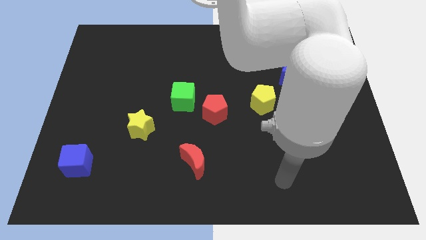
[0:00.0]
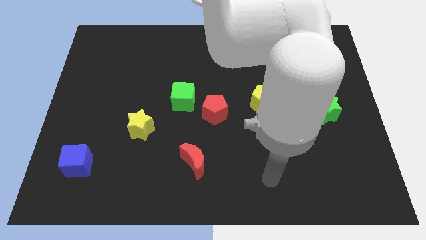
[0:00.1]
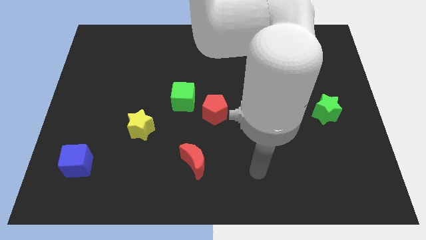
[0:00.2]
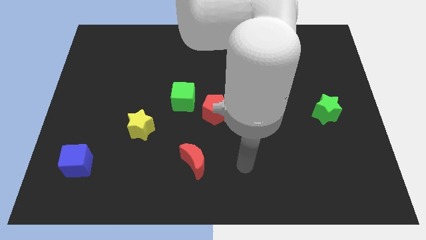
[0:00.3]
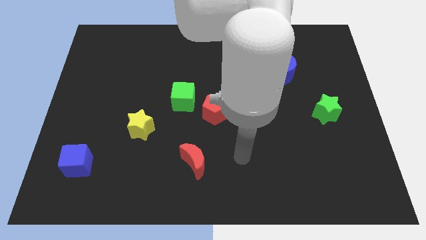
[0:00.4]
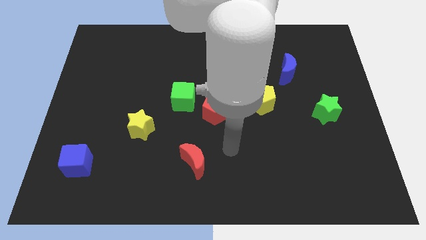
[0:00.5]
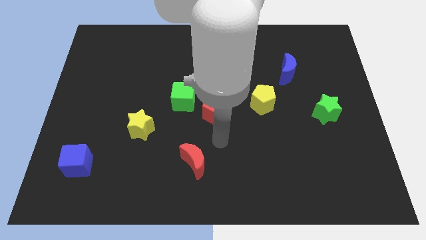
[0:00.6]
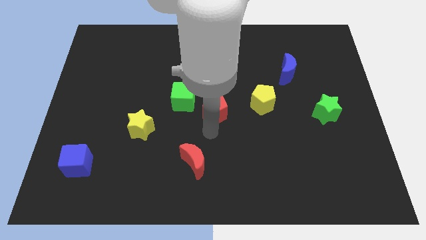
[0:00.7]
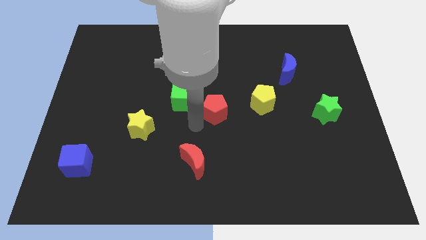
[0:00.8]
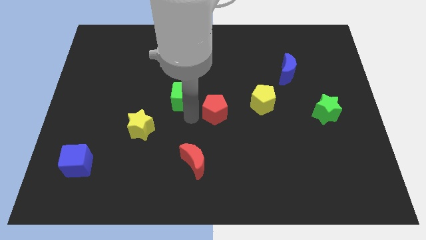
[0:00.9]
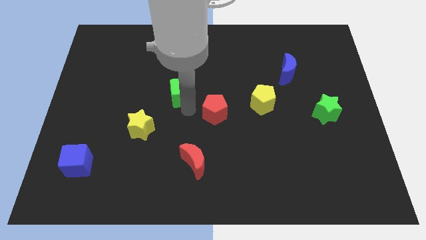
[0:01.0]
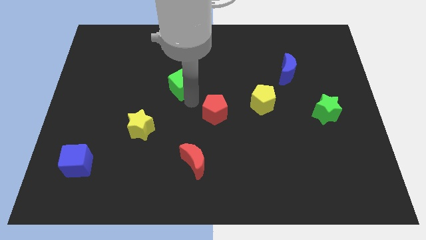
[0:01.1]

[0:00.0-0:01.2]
pull the red pentagon apart from the green cube

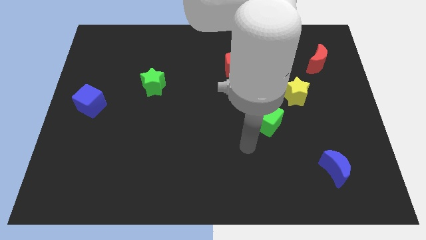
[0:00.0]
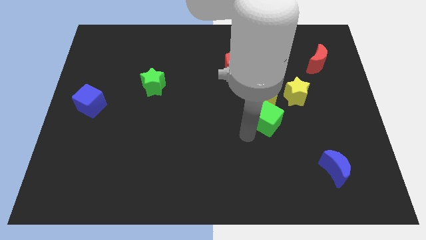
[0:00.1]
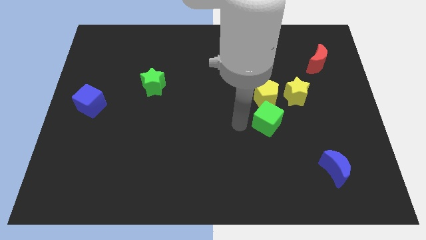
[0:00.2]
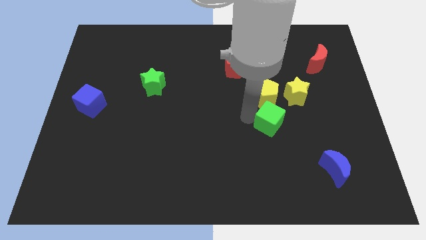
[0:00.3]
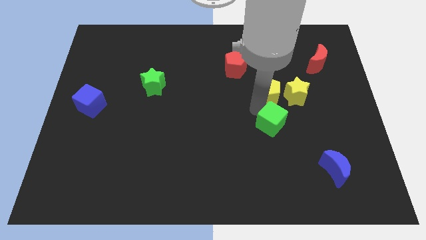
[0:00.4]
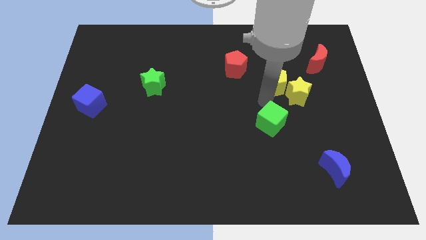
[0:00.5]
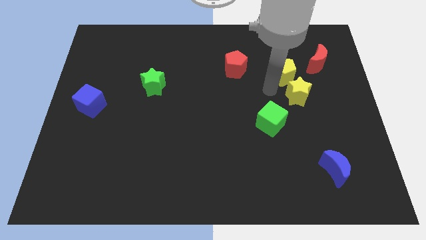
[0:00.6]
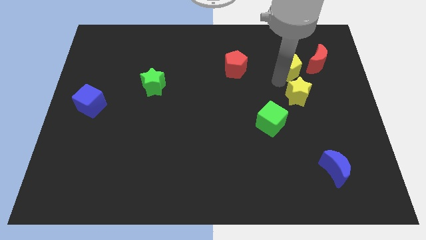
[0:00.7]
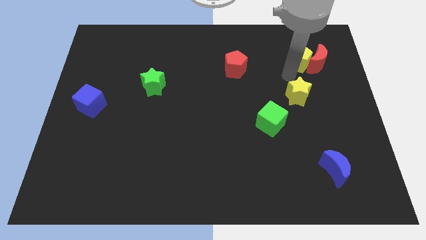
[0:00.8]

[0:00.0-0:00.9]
move the yellow star away from the yellow pentagon

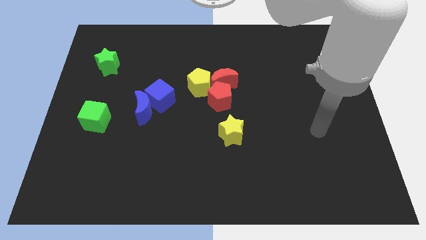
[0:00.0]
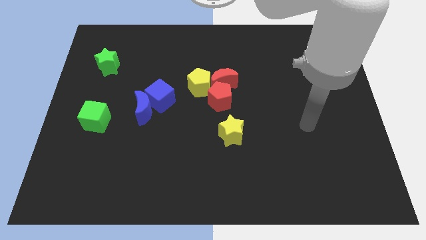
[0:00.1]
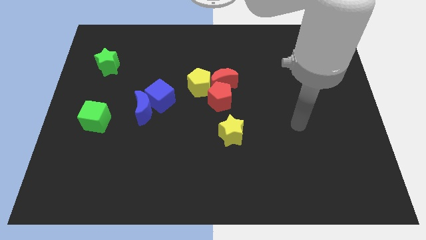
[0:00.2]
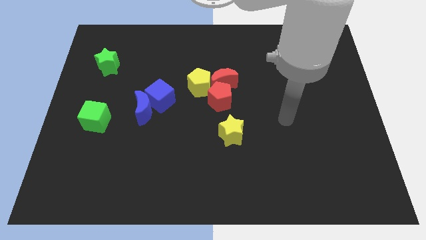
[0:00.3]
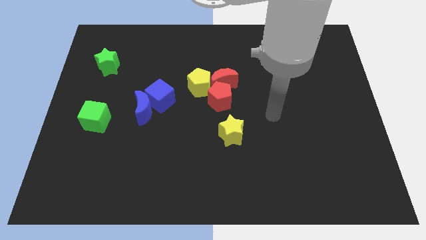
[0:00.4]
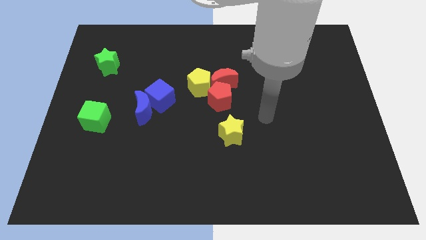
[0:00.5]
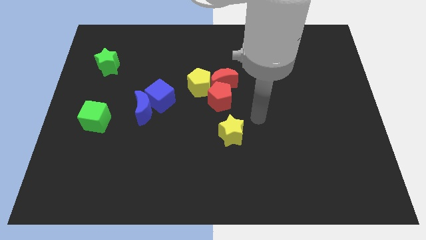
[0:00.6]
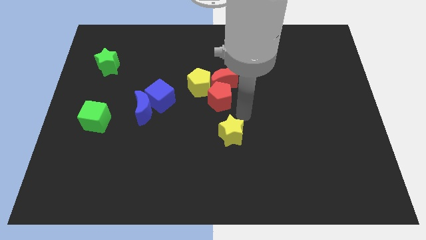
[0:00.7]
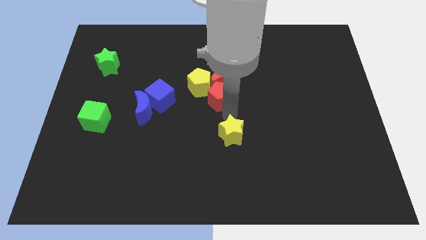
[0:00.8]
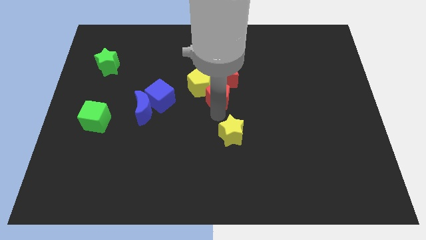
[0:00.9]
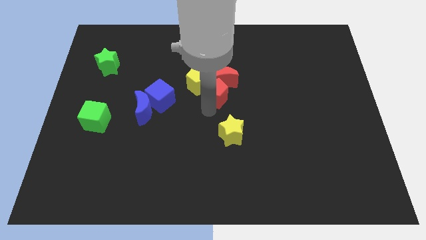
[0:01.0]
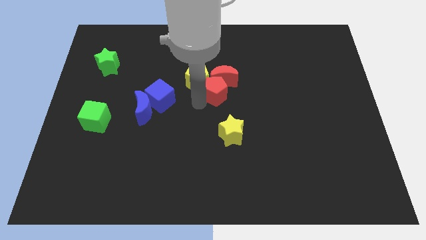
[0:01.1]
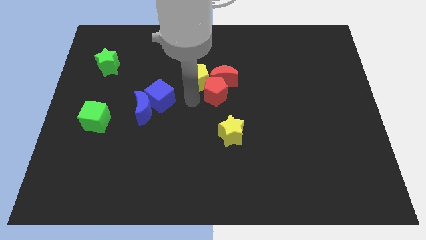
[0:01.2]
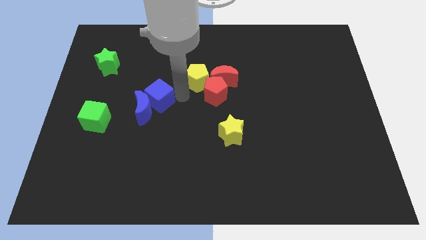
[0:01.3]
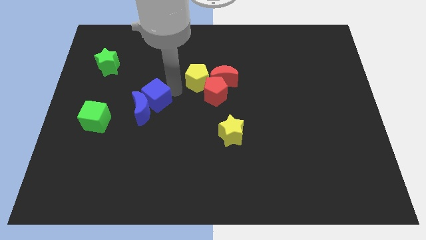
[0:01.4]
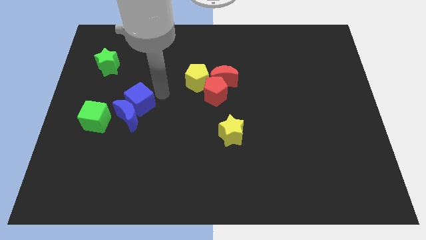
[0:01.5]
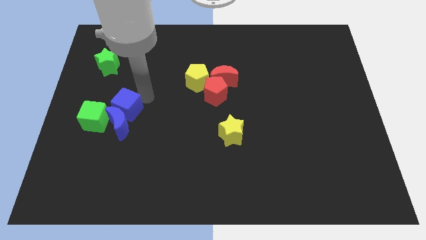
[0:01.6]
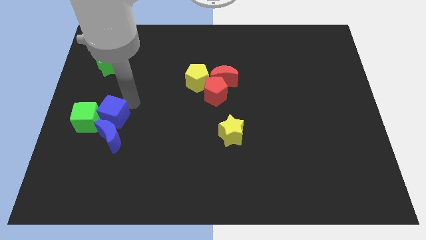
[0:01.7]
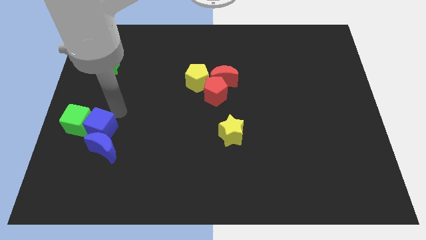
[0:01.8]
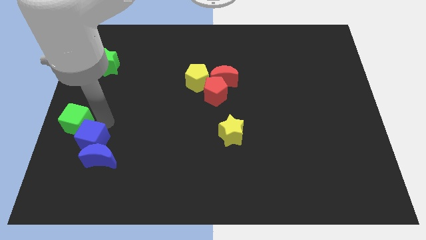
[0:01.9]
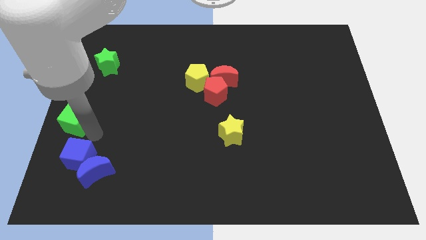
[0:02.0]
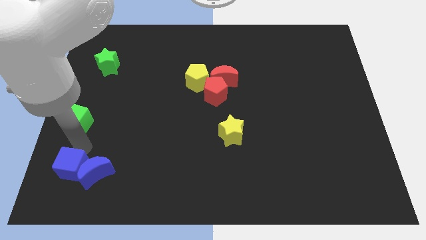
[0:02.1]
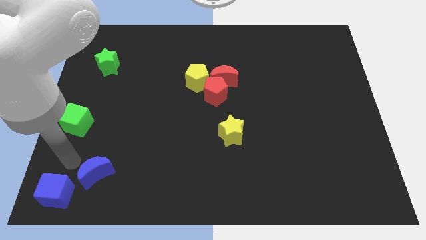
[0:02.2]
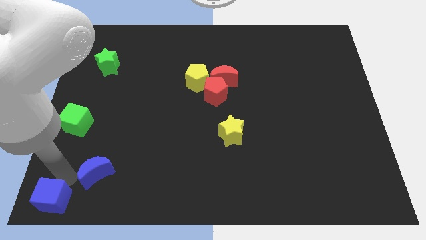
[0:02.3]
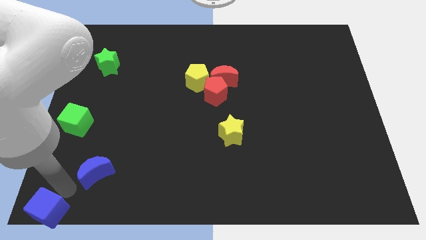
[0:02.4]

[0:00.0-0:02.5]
separate the blue moon from the blue cube

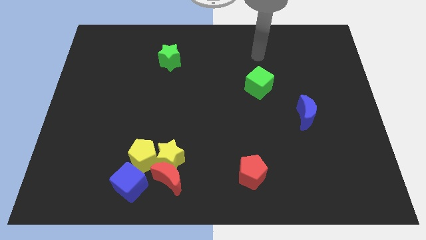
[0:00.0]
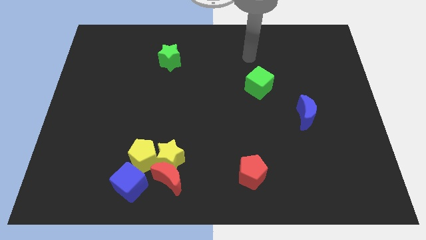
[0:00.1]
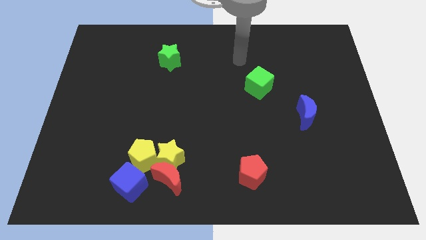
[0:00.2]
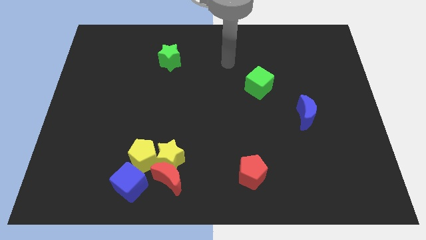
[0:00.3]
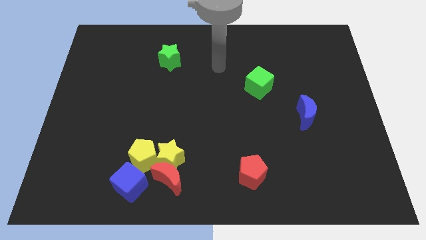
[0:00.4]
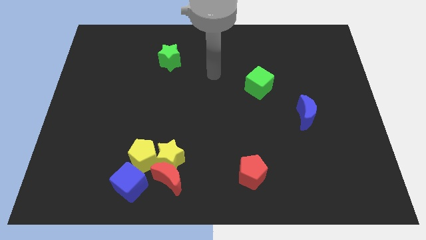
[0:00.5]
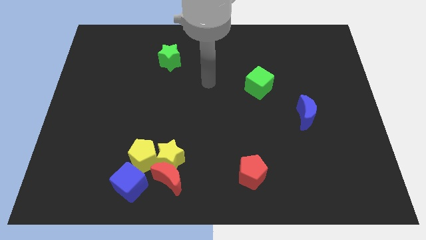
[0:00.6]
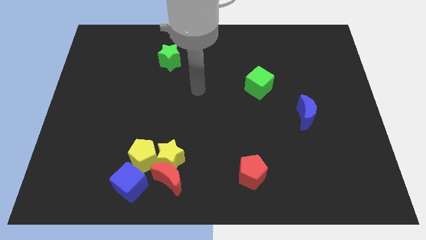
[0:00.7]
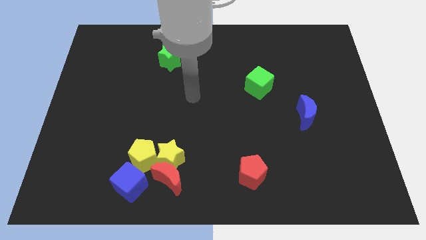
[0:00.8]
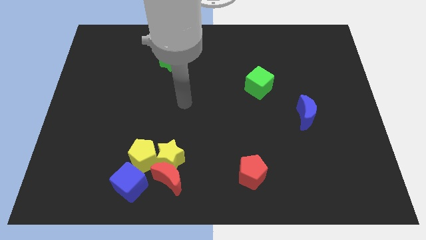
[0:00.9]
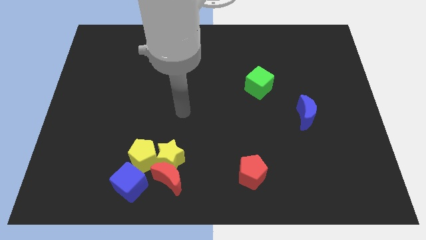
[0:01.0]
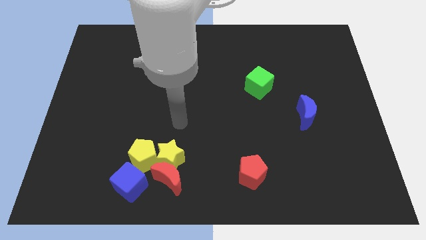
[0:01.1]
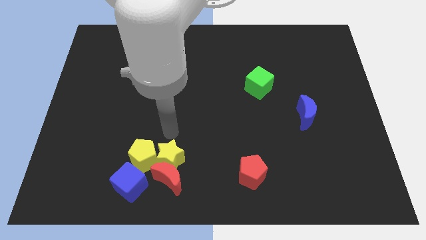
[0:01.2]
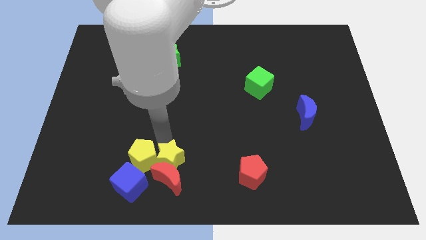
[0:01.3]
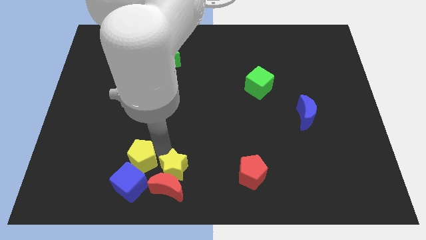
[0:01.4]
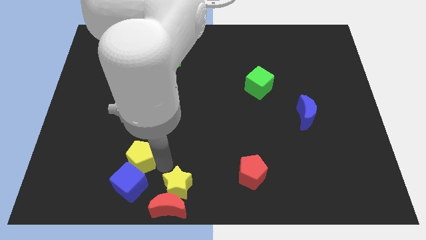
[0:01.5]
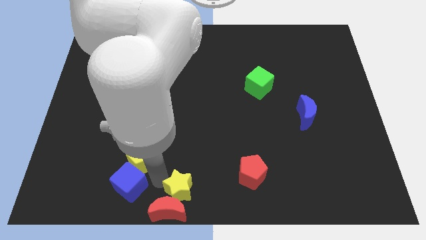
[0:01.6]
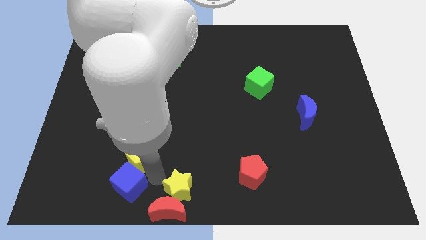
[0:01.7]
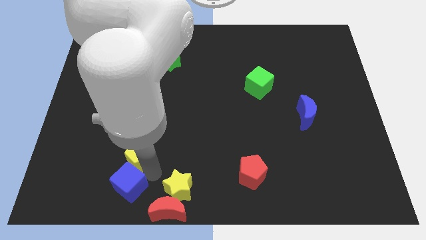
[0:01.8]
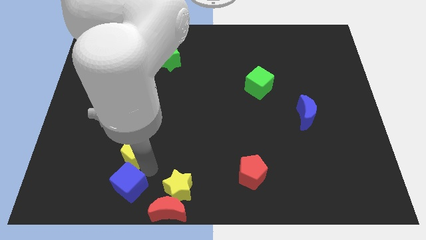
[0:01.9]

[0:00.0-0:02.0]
pull the yellow pentagon apart from the yellow star, blue cube, and red moon

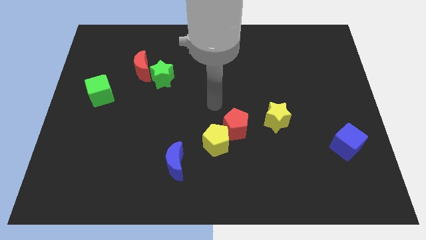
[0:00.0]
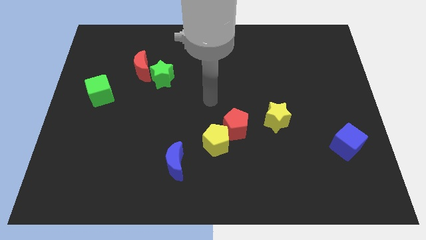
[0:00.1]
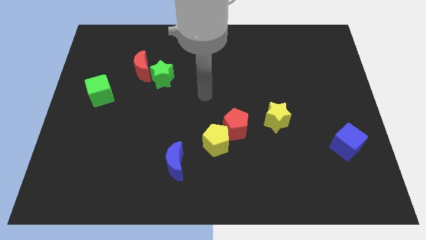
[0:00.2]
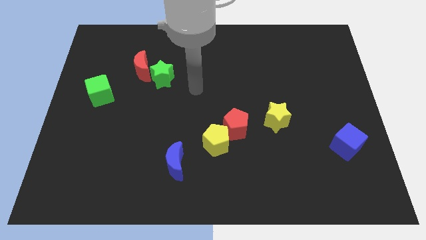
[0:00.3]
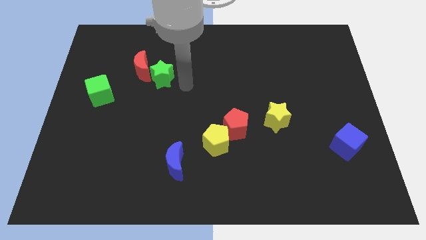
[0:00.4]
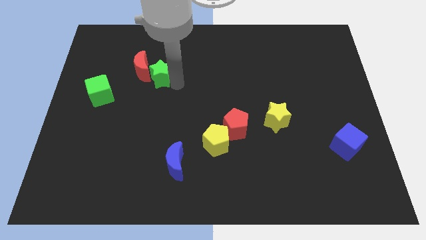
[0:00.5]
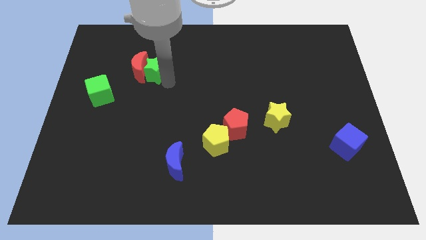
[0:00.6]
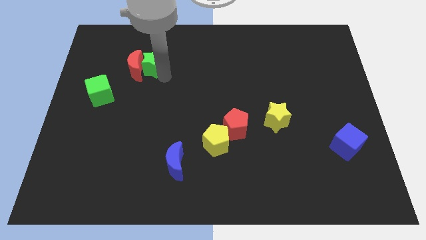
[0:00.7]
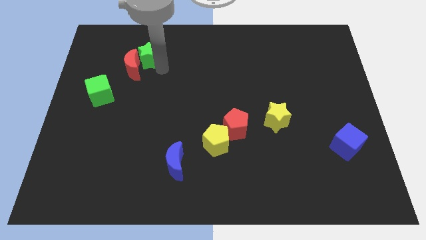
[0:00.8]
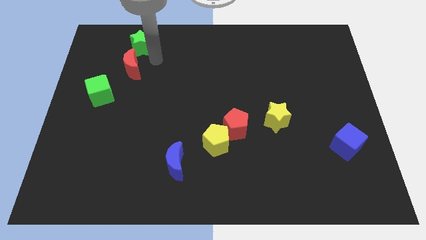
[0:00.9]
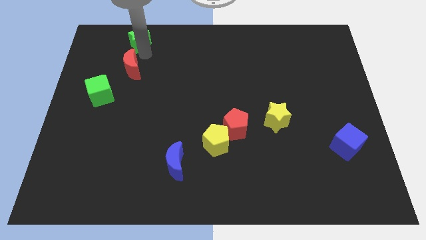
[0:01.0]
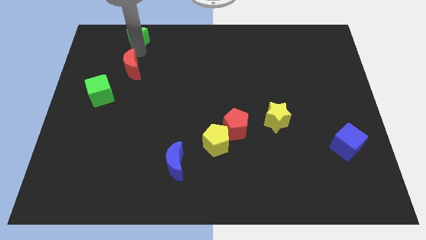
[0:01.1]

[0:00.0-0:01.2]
move the red moon away from the green star

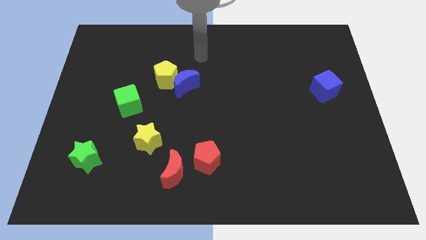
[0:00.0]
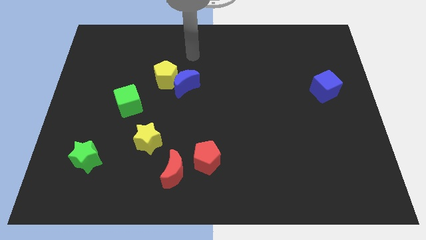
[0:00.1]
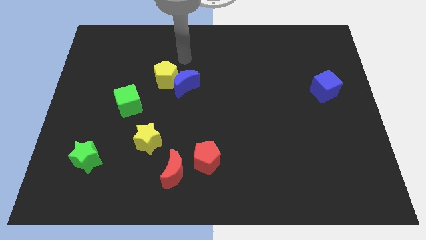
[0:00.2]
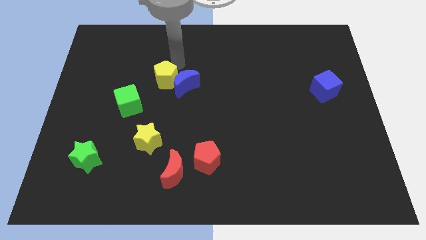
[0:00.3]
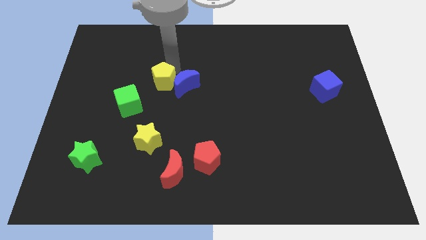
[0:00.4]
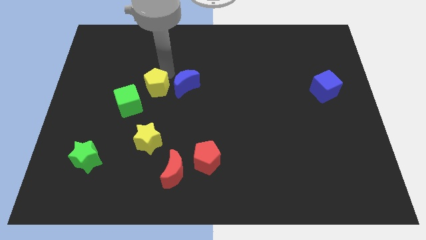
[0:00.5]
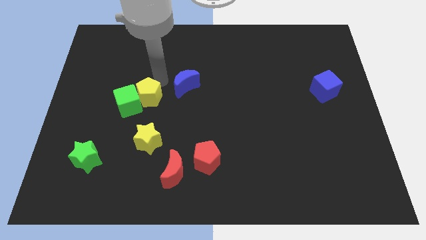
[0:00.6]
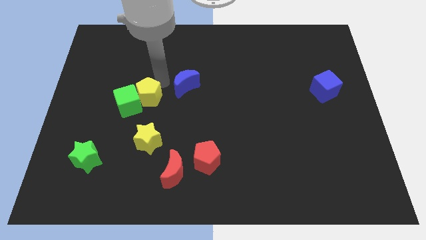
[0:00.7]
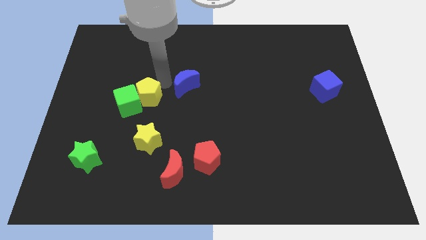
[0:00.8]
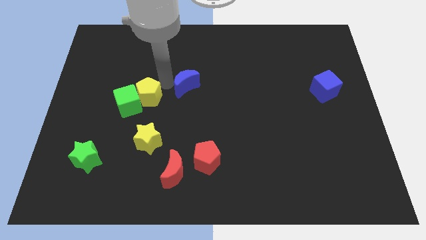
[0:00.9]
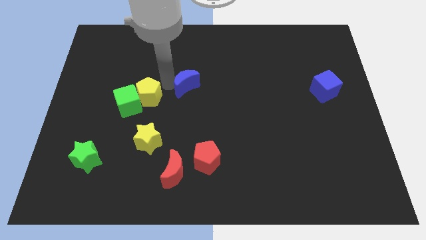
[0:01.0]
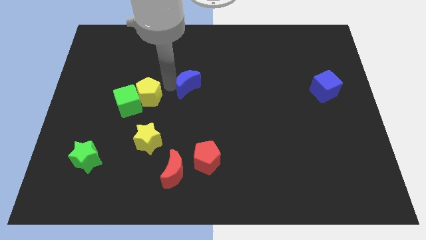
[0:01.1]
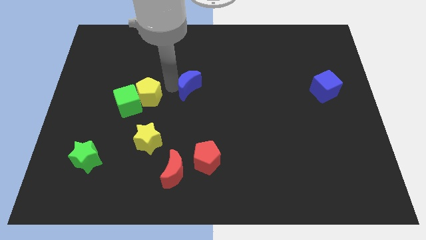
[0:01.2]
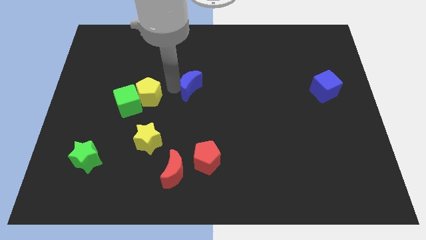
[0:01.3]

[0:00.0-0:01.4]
pull the blue moon apart from the yellow pentagon
